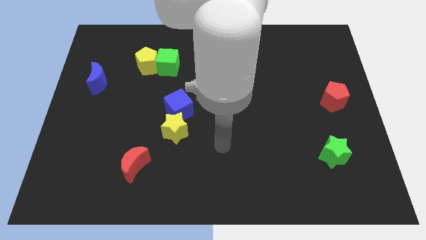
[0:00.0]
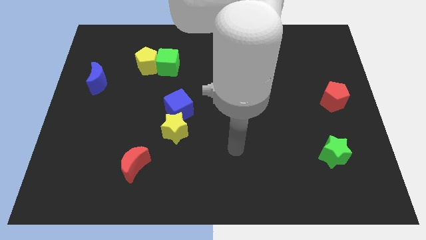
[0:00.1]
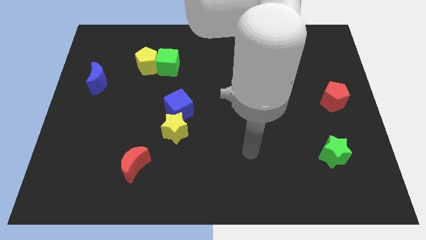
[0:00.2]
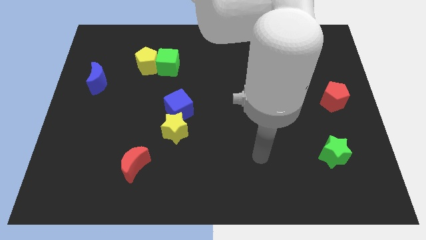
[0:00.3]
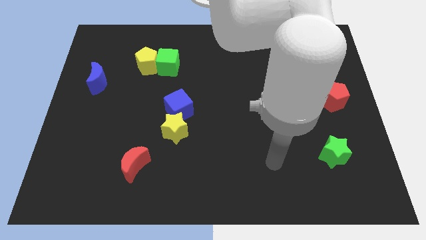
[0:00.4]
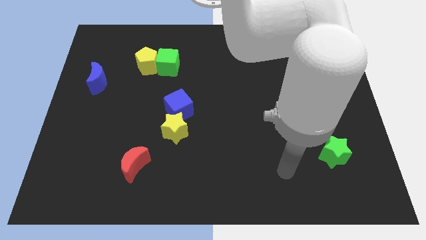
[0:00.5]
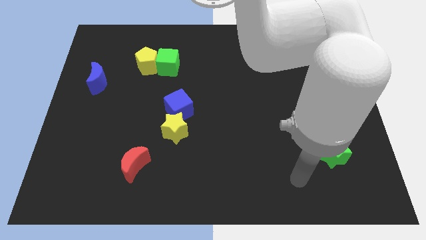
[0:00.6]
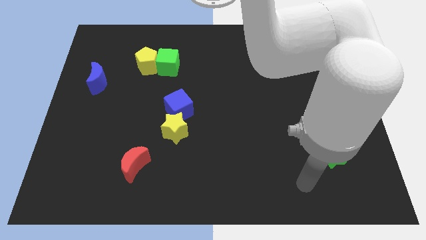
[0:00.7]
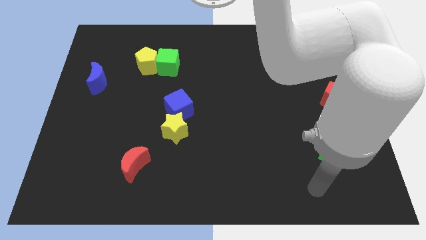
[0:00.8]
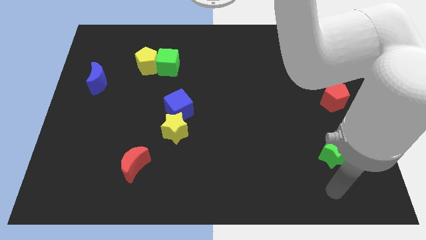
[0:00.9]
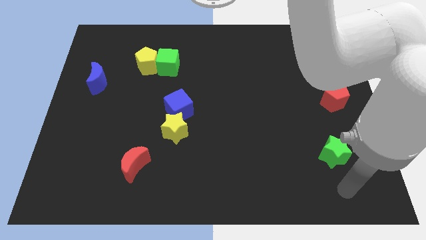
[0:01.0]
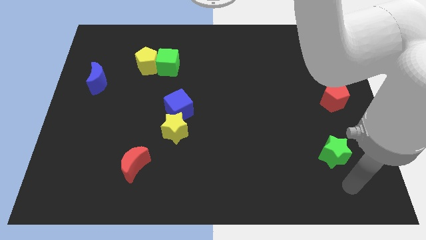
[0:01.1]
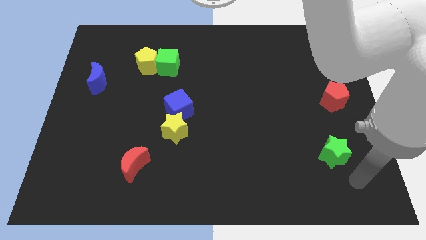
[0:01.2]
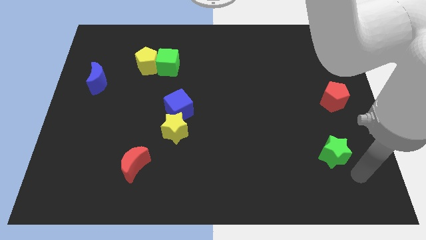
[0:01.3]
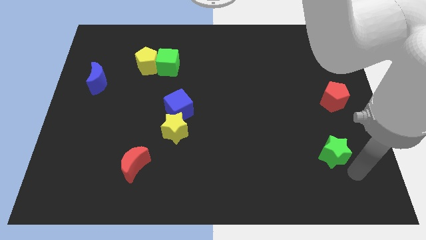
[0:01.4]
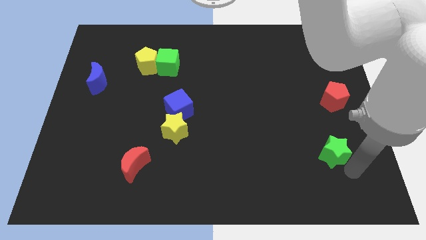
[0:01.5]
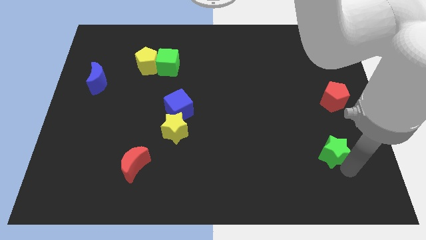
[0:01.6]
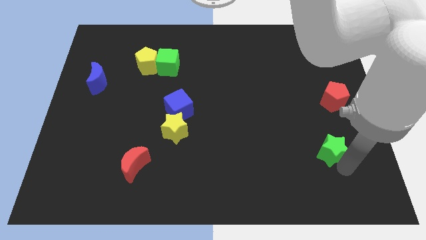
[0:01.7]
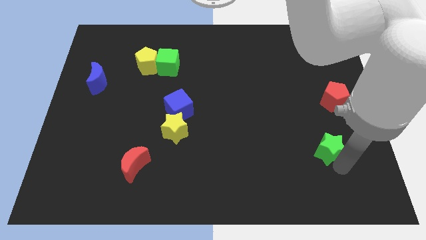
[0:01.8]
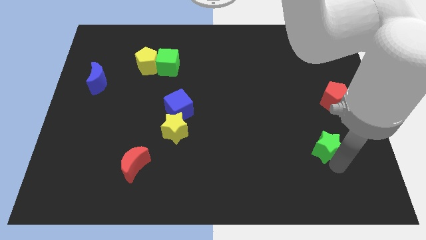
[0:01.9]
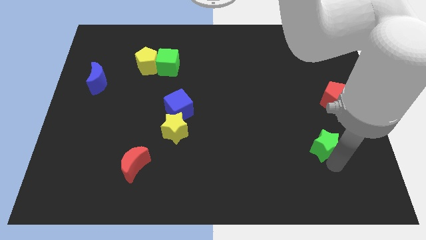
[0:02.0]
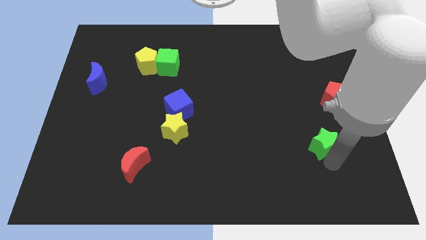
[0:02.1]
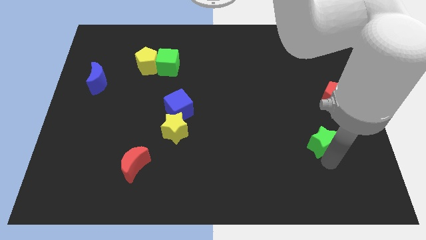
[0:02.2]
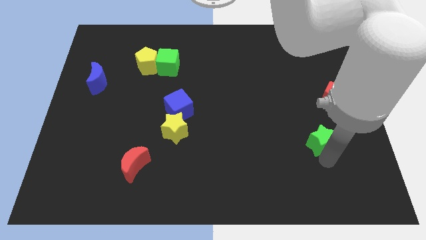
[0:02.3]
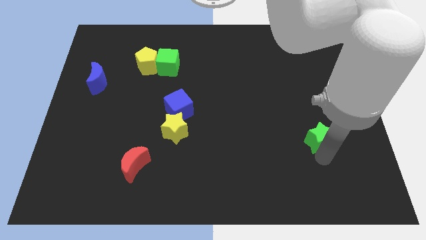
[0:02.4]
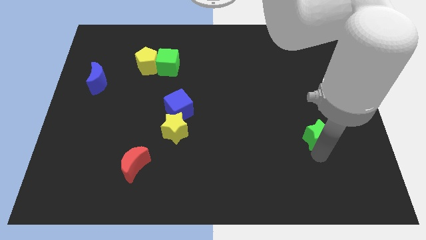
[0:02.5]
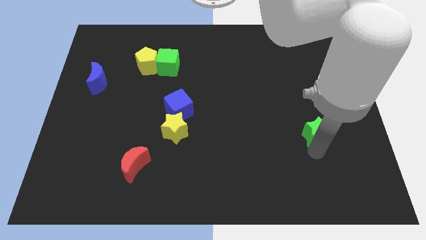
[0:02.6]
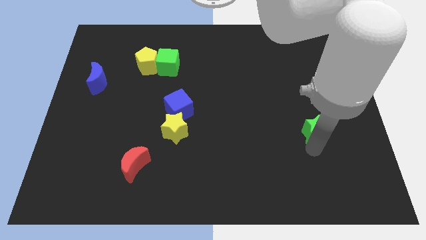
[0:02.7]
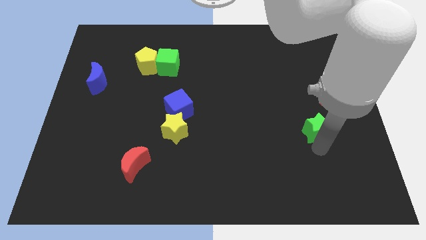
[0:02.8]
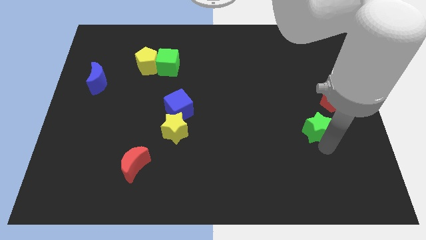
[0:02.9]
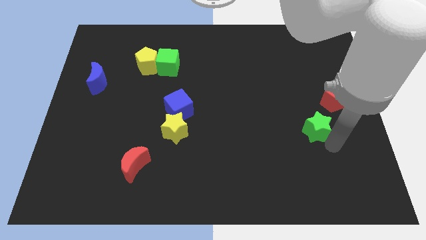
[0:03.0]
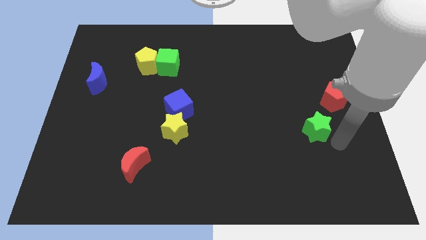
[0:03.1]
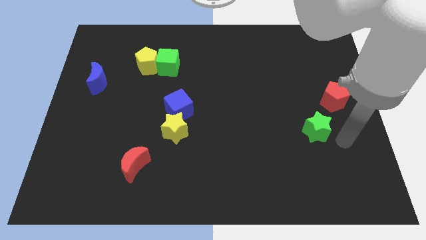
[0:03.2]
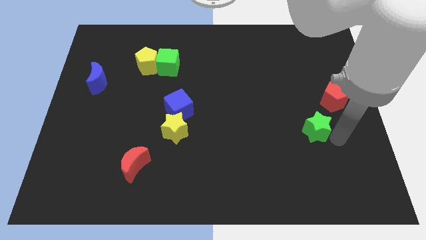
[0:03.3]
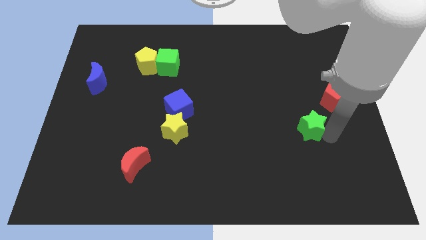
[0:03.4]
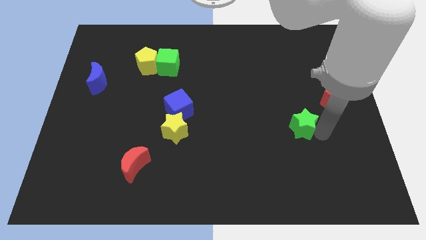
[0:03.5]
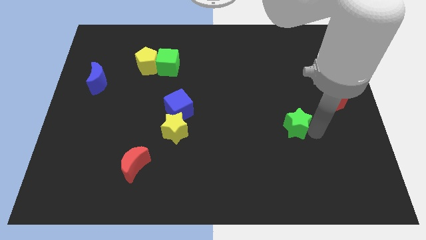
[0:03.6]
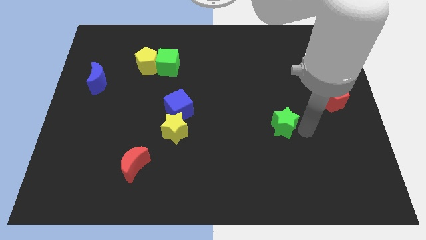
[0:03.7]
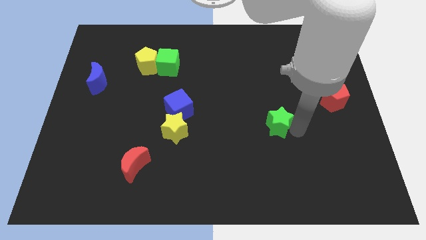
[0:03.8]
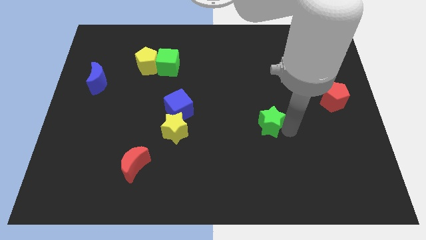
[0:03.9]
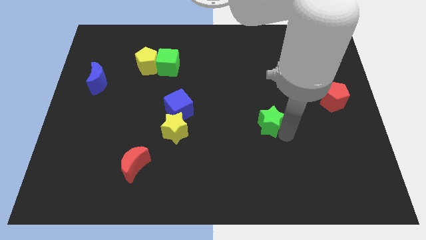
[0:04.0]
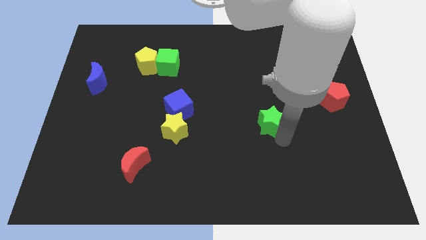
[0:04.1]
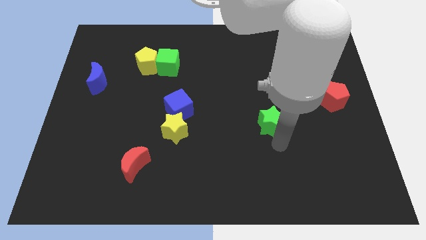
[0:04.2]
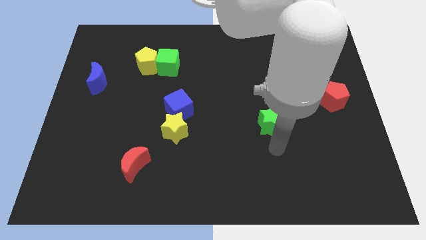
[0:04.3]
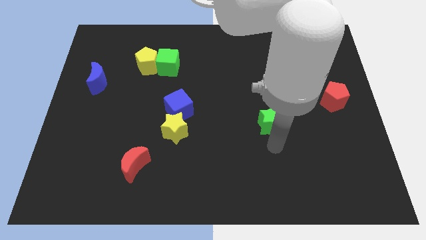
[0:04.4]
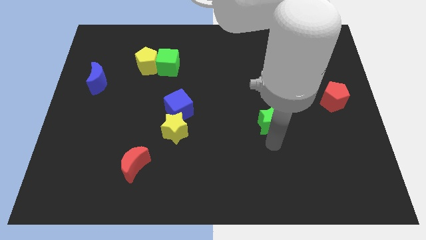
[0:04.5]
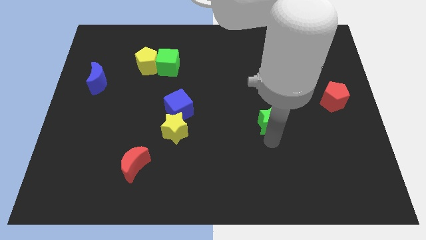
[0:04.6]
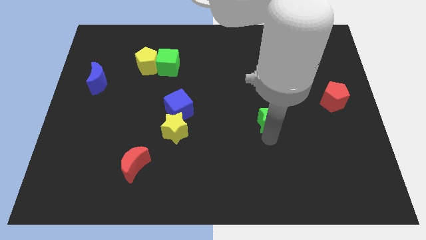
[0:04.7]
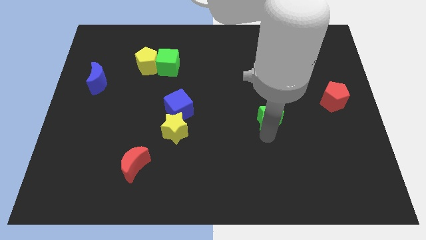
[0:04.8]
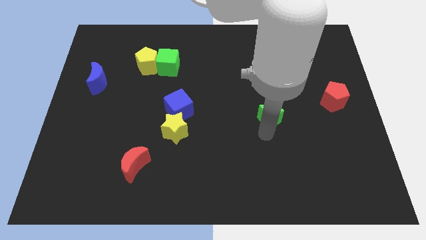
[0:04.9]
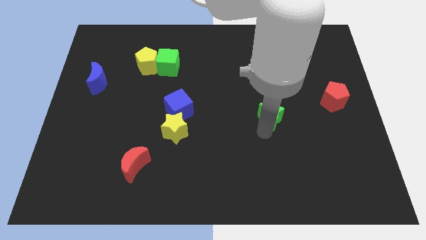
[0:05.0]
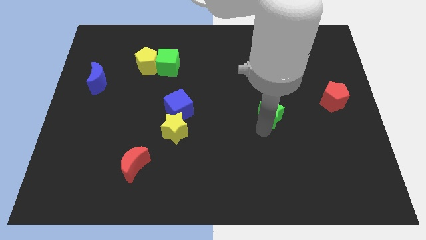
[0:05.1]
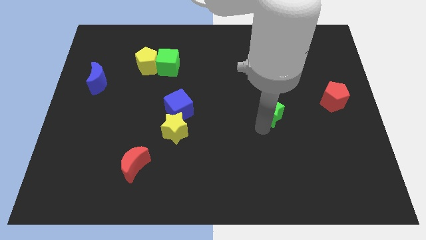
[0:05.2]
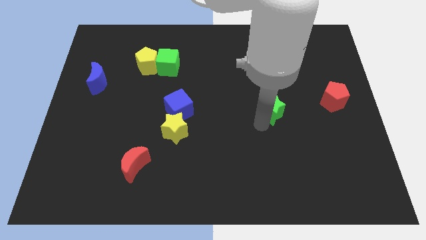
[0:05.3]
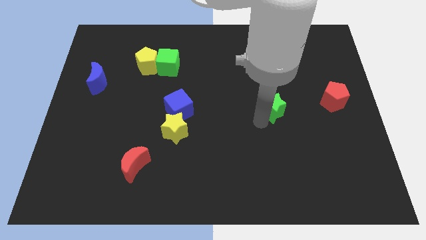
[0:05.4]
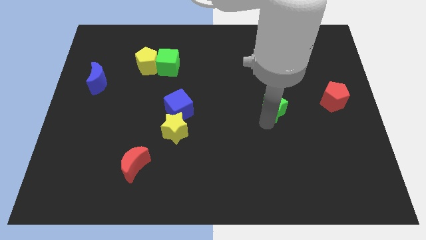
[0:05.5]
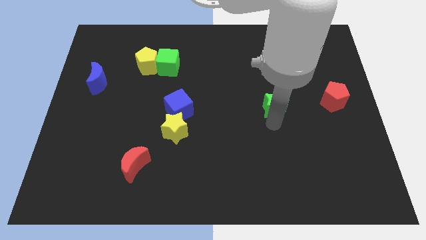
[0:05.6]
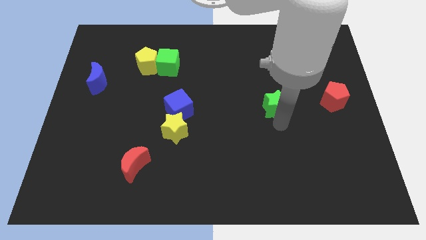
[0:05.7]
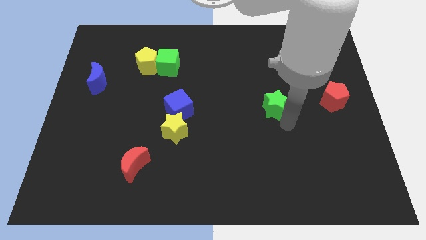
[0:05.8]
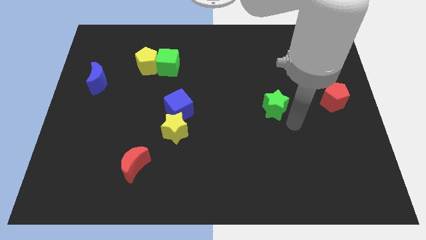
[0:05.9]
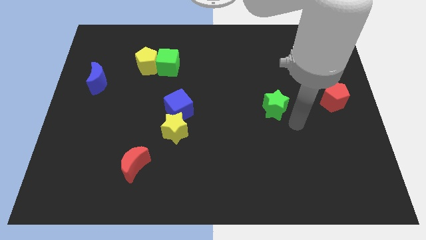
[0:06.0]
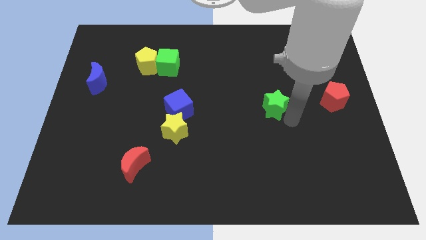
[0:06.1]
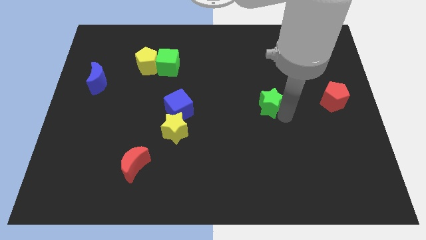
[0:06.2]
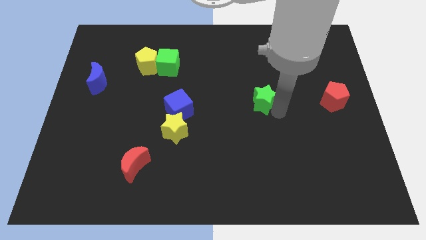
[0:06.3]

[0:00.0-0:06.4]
push the green star upwards and left

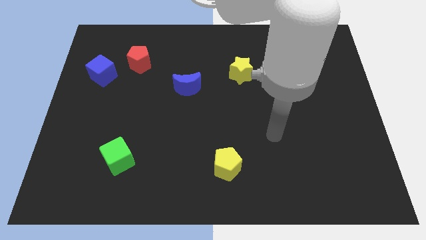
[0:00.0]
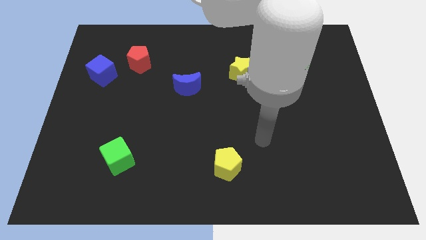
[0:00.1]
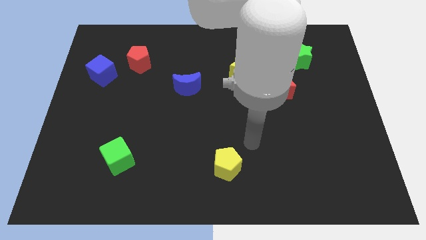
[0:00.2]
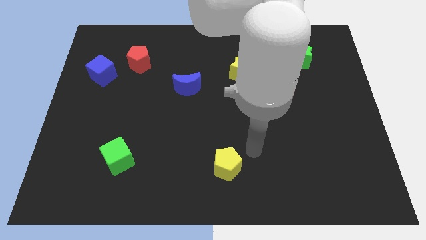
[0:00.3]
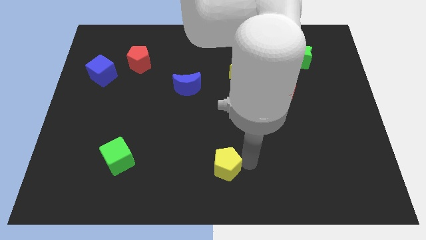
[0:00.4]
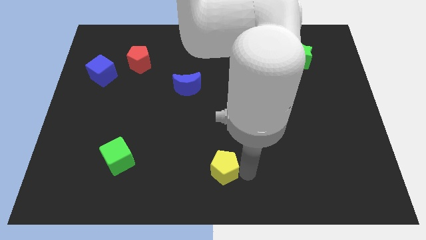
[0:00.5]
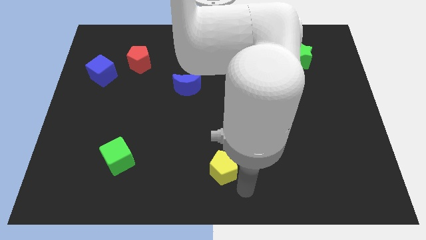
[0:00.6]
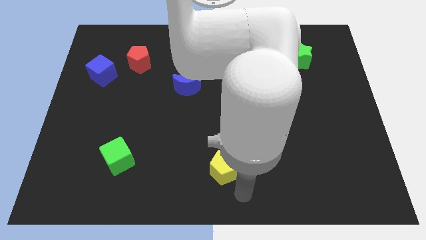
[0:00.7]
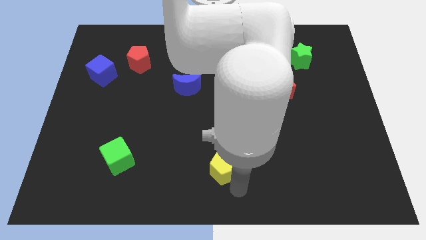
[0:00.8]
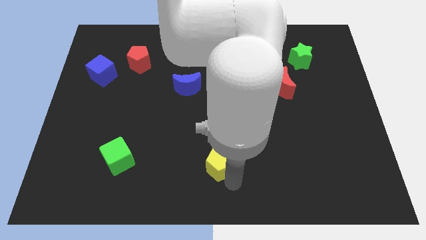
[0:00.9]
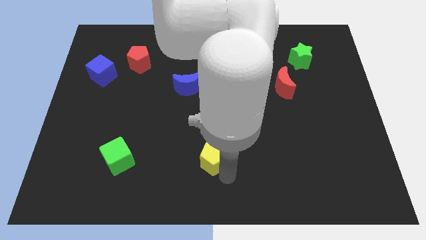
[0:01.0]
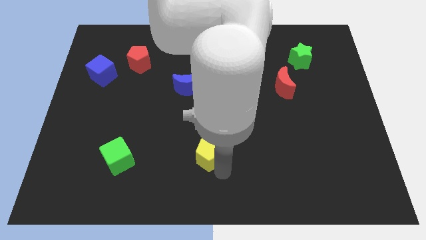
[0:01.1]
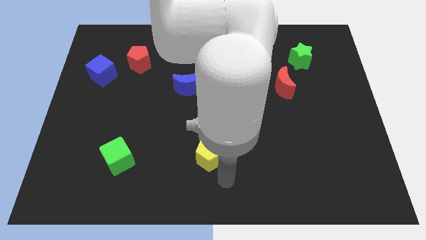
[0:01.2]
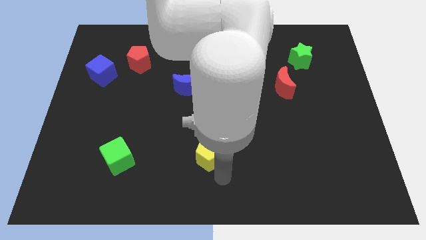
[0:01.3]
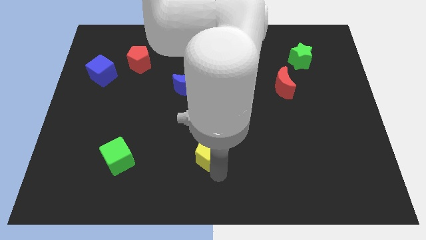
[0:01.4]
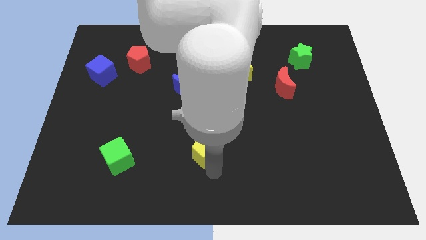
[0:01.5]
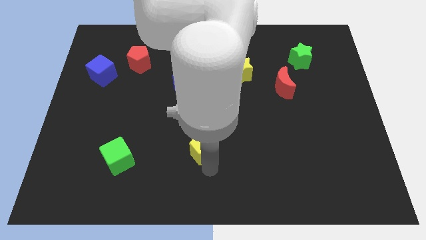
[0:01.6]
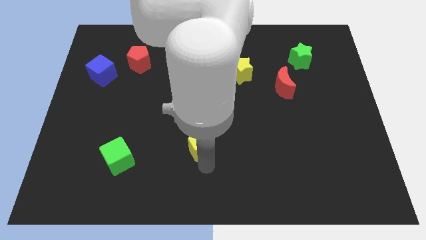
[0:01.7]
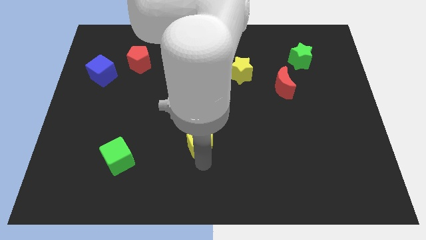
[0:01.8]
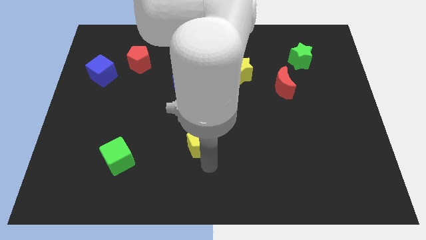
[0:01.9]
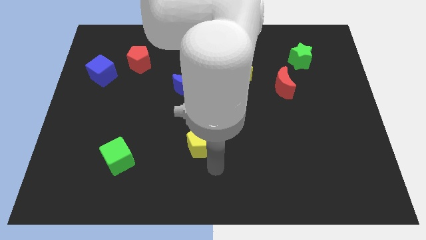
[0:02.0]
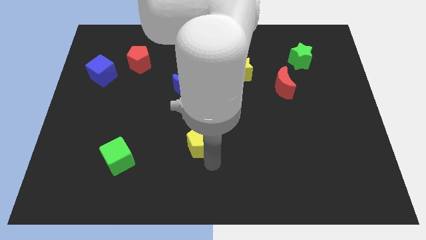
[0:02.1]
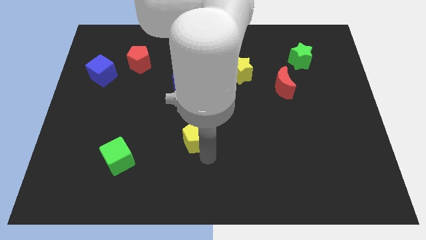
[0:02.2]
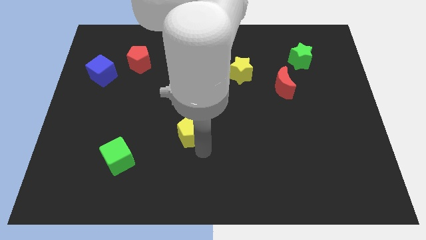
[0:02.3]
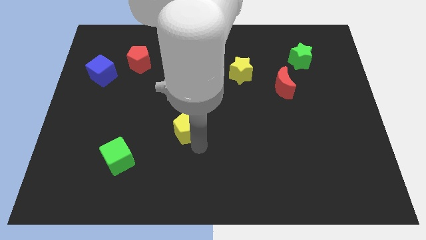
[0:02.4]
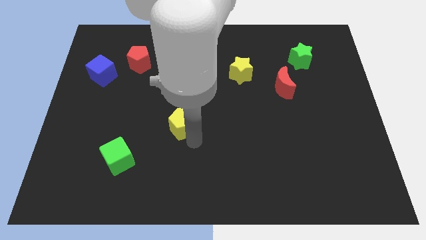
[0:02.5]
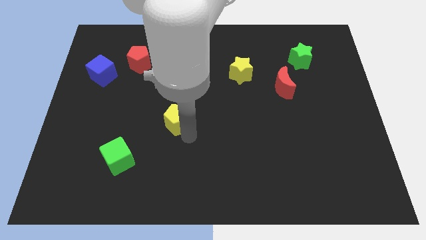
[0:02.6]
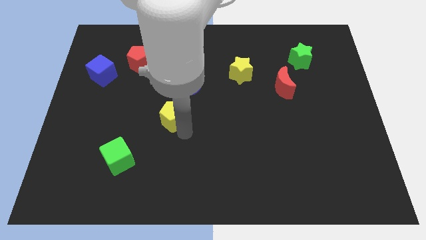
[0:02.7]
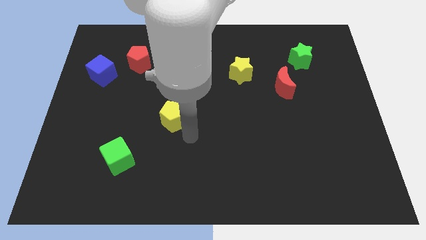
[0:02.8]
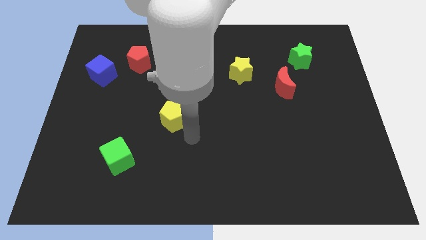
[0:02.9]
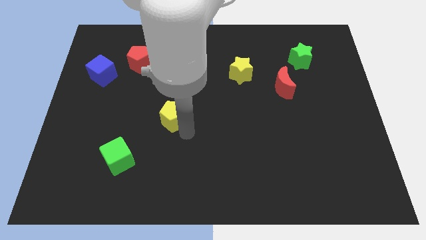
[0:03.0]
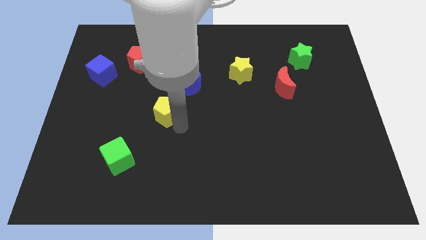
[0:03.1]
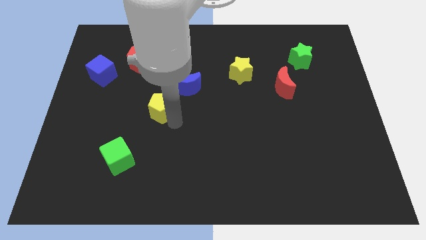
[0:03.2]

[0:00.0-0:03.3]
slide the yellow pentagon upwards and to the left
